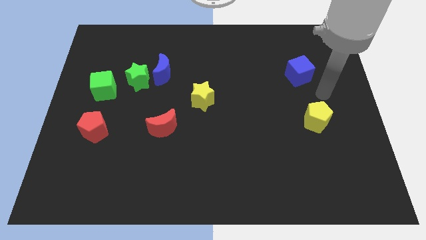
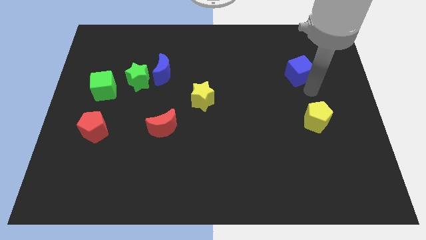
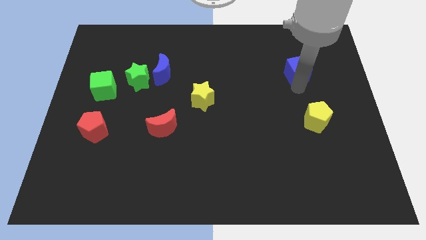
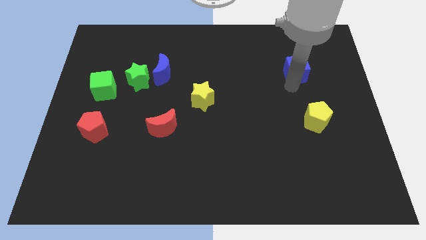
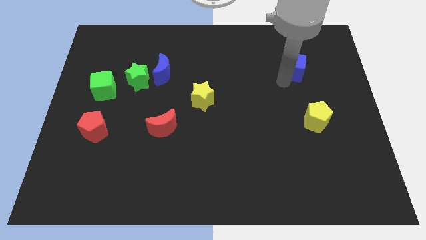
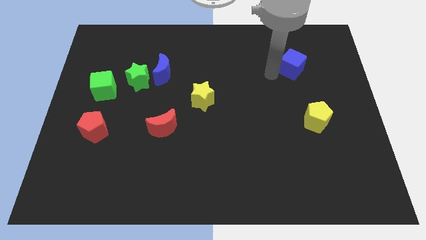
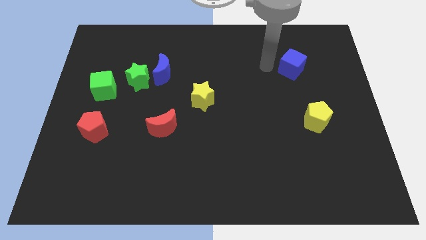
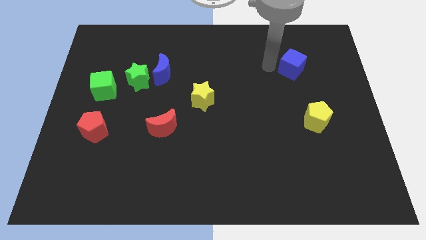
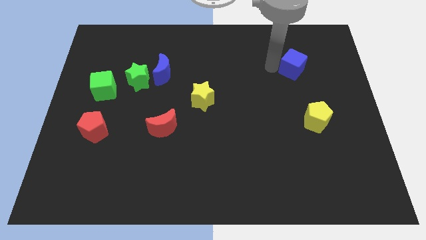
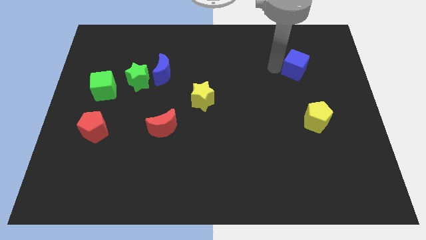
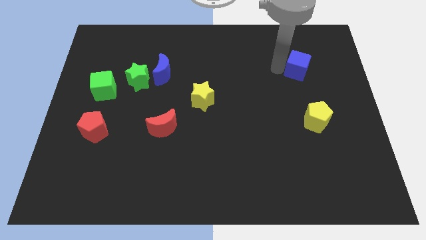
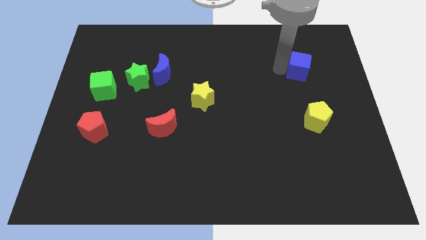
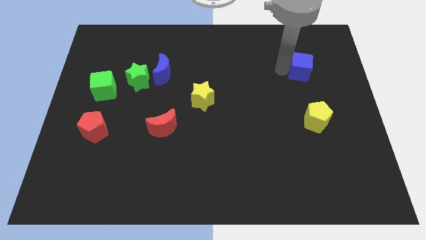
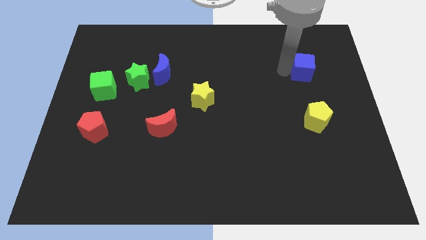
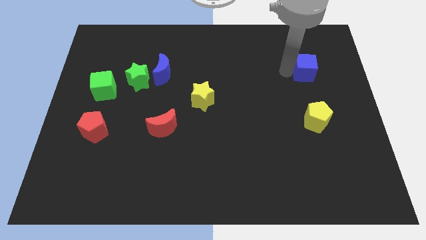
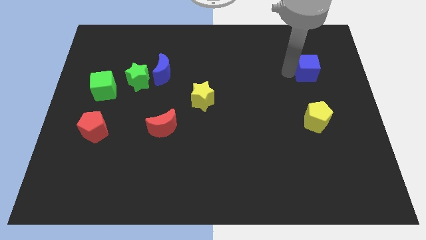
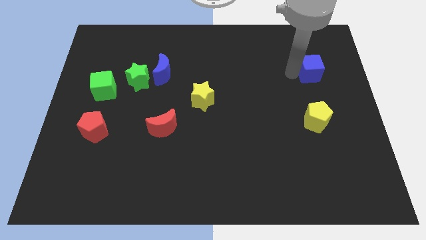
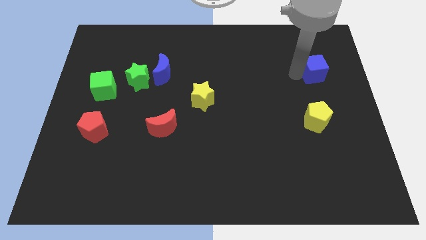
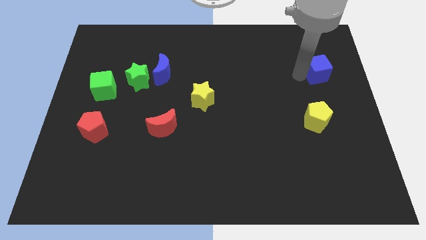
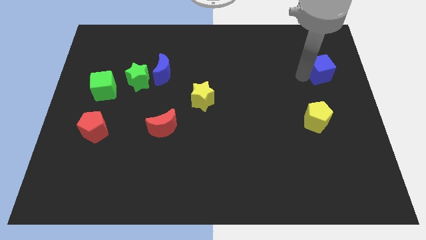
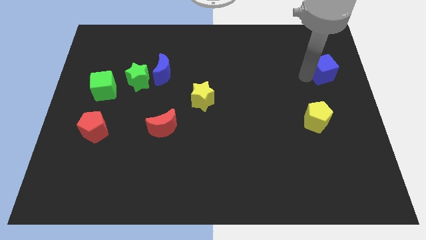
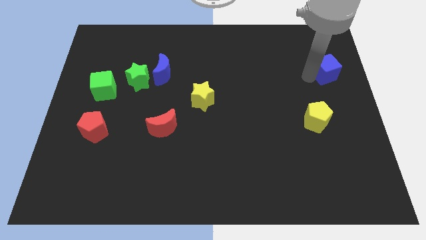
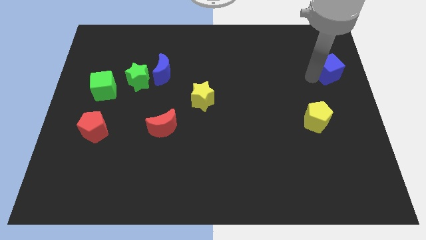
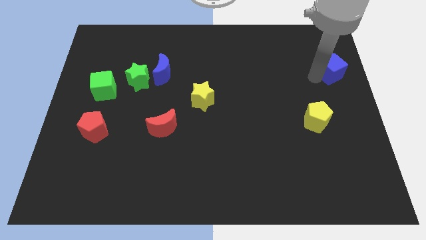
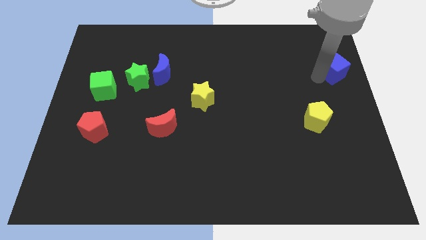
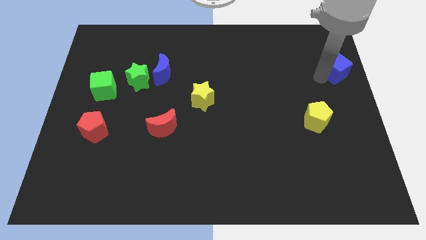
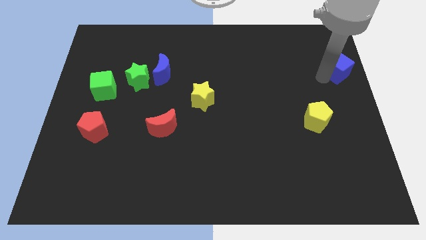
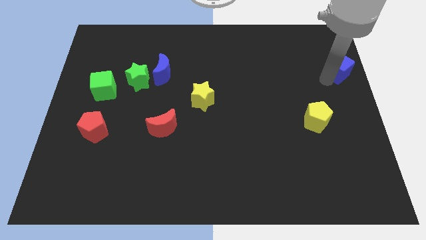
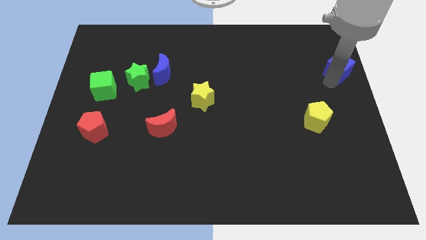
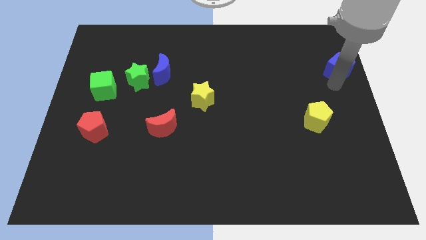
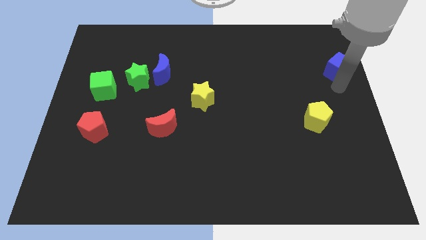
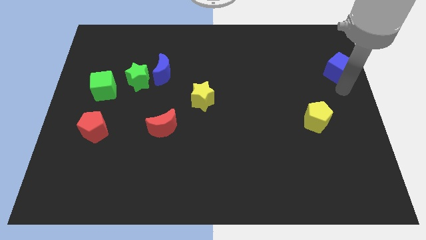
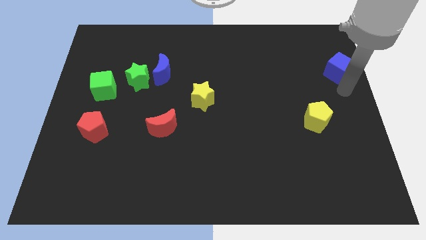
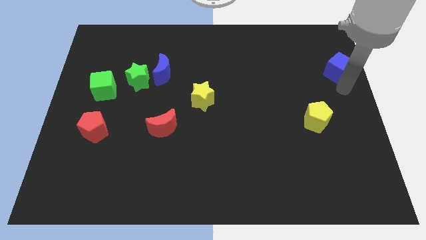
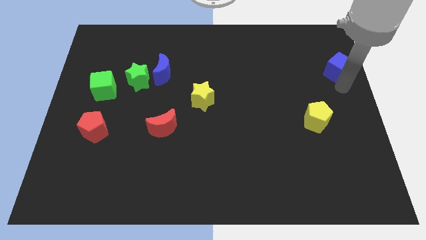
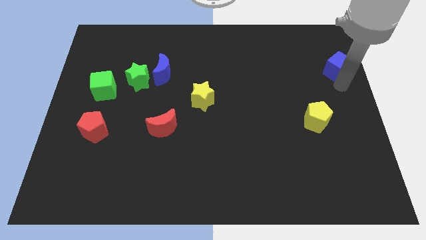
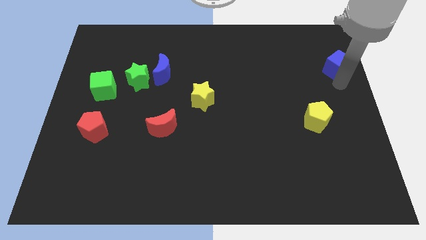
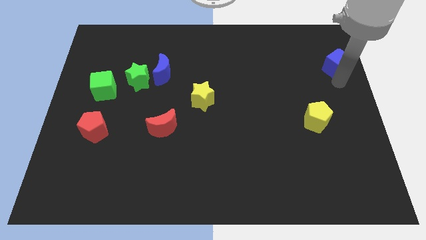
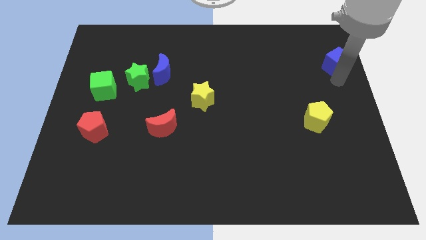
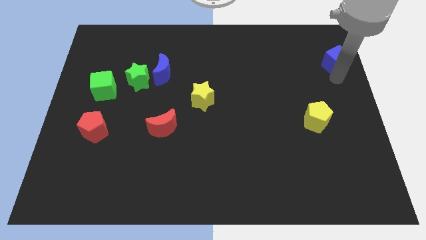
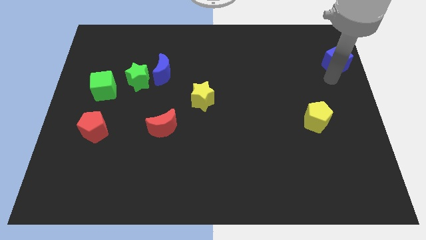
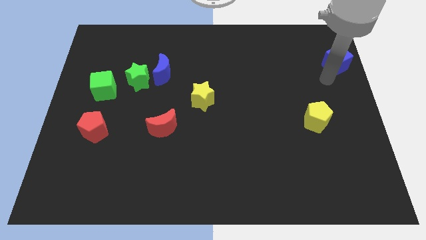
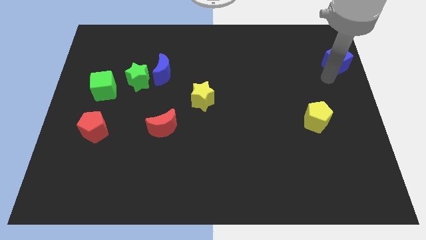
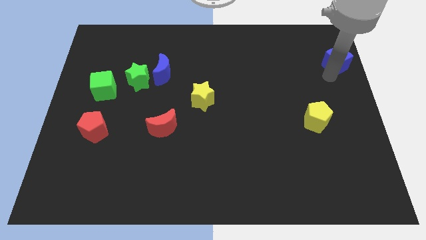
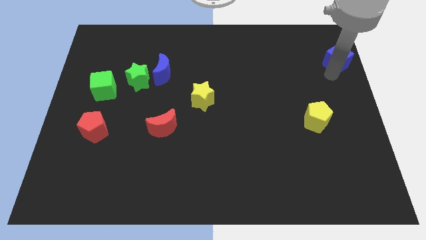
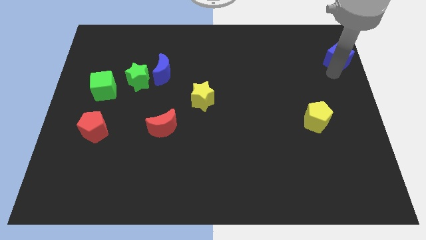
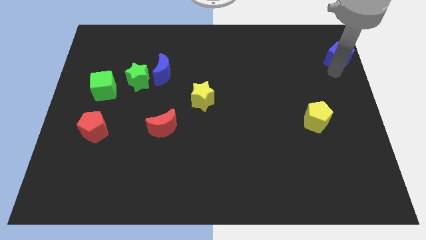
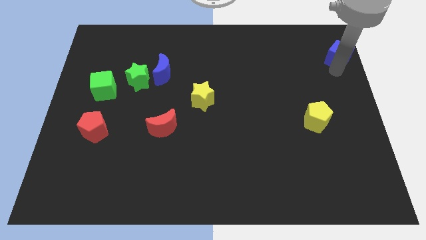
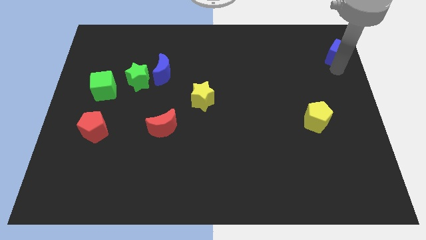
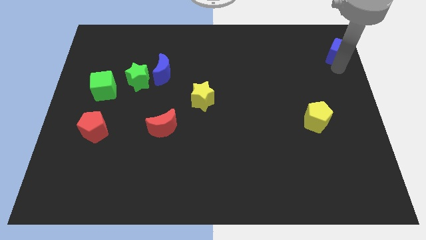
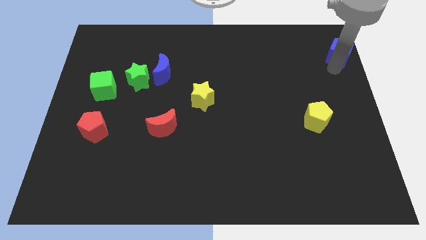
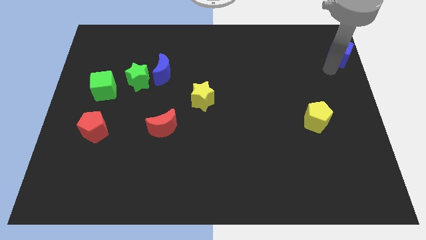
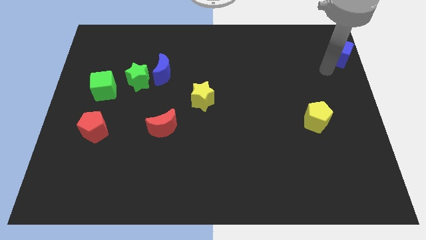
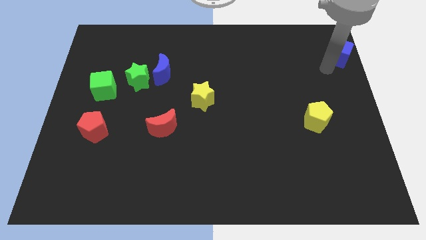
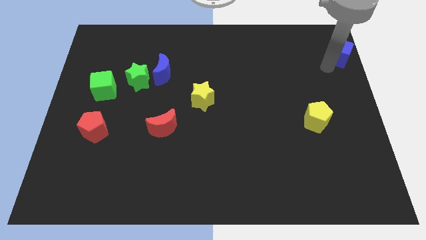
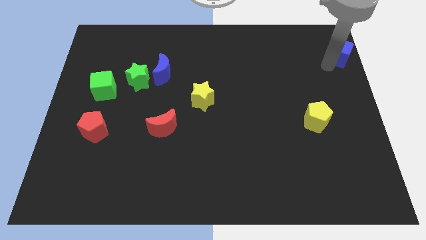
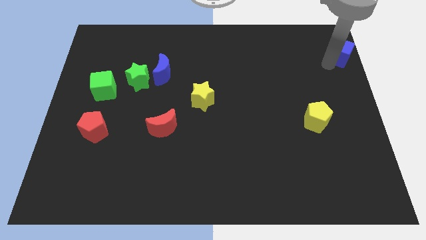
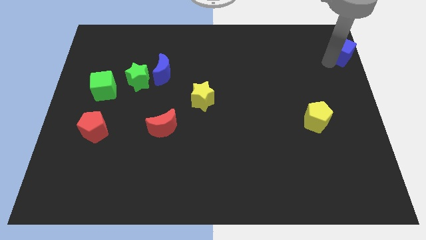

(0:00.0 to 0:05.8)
put the blue cube to the upper right corner

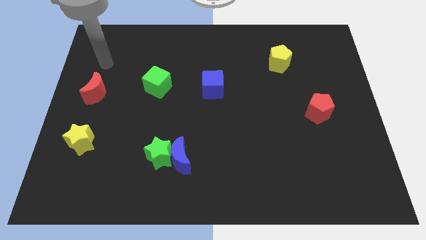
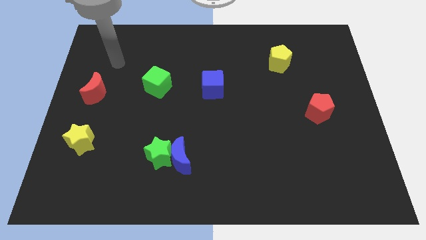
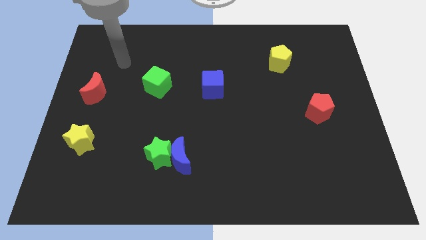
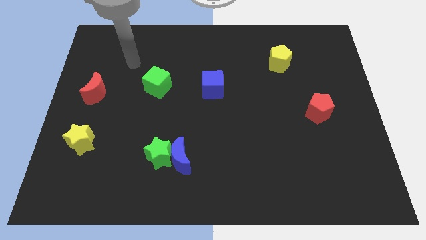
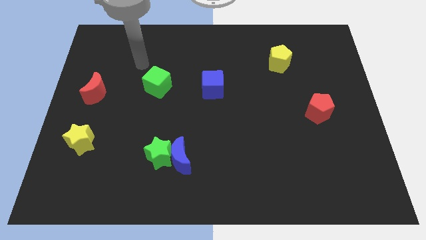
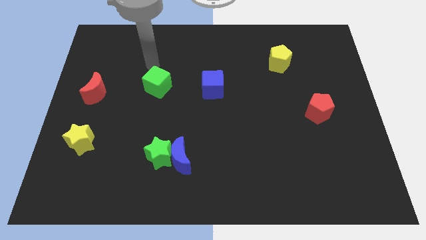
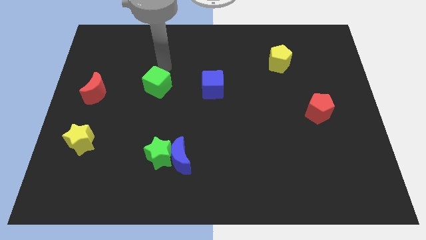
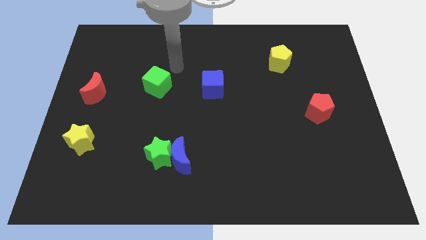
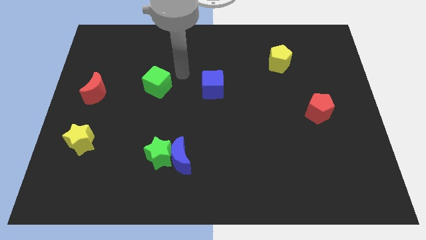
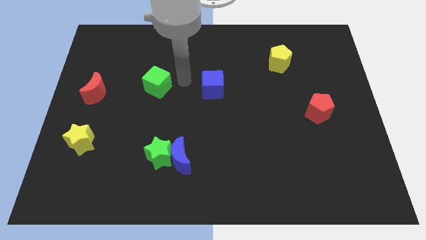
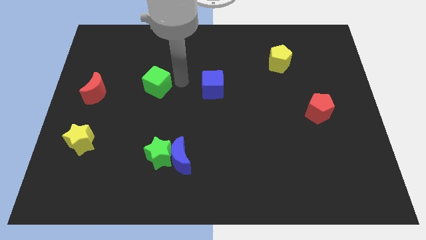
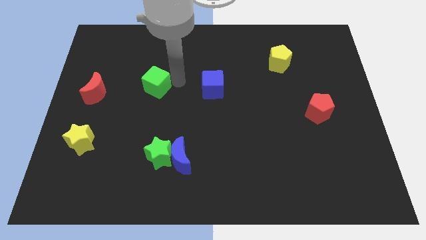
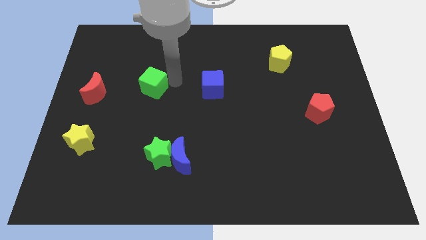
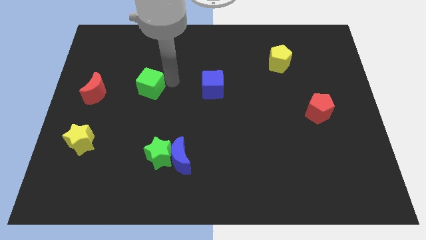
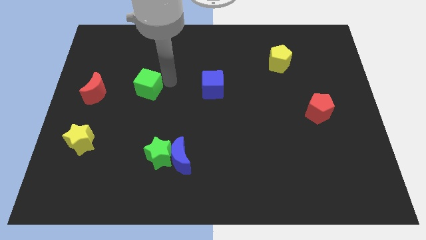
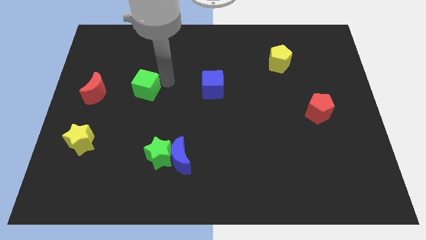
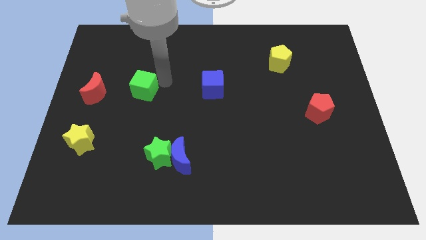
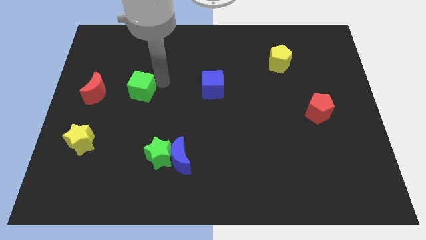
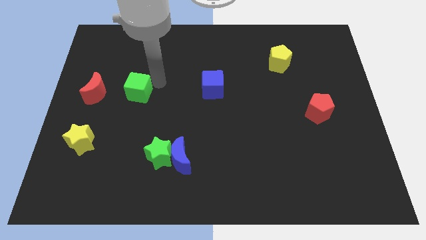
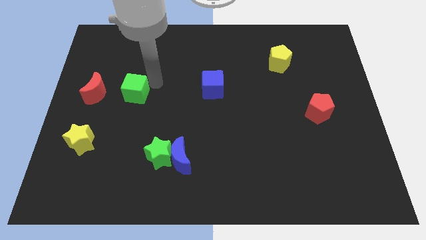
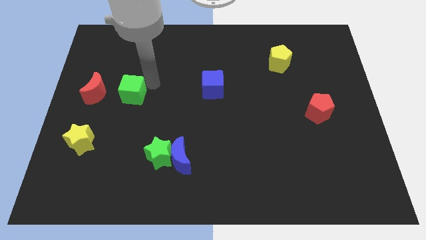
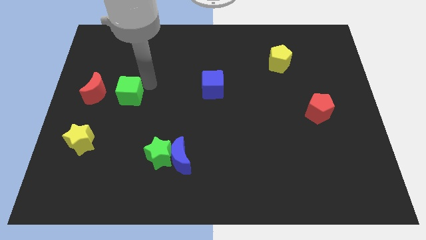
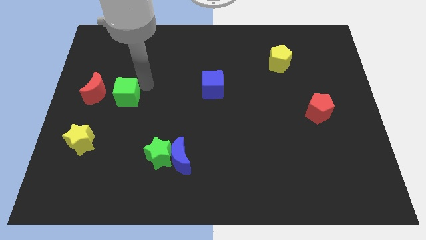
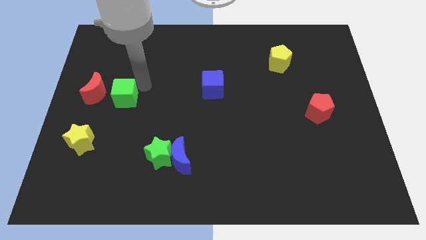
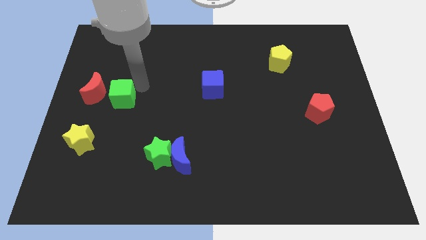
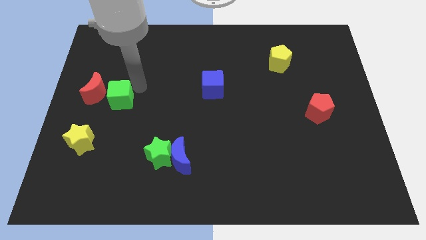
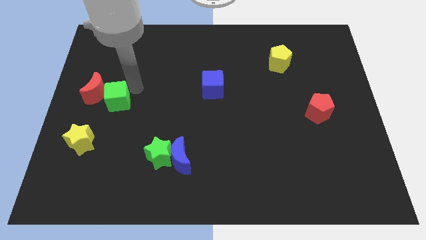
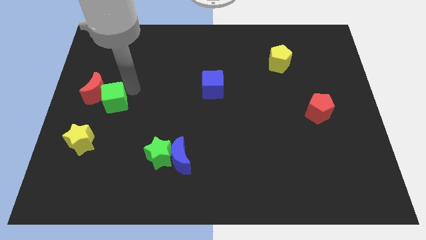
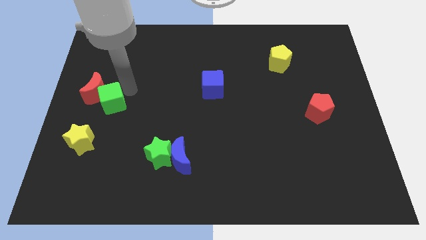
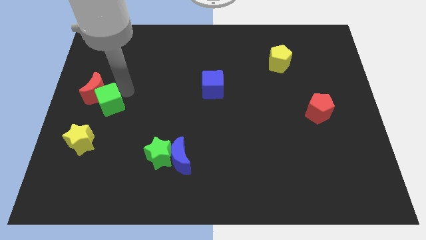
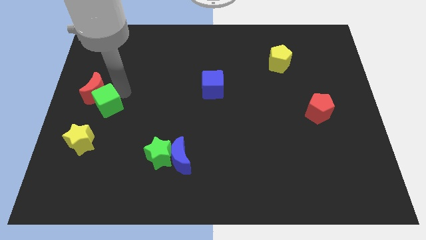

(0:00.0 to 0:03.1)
put the green cube to the left side of the board
